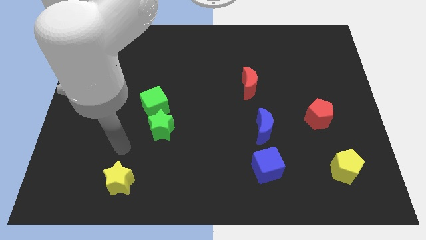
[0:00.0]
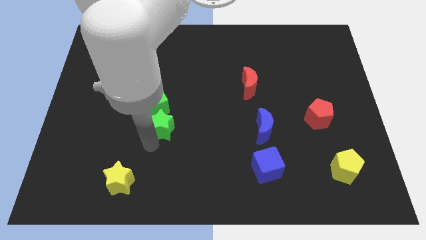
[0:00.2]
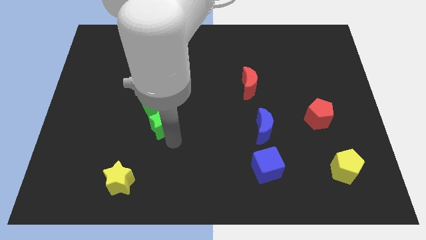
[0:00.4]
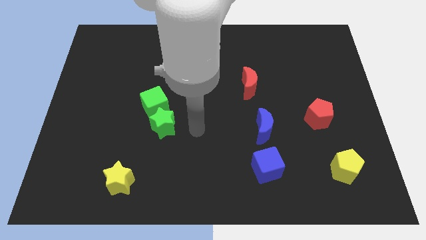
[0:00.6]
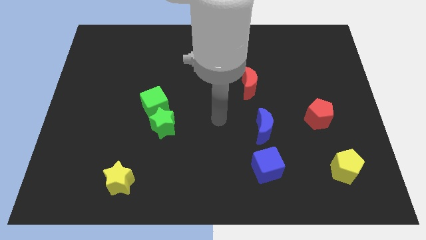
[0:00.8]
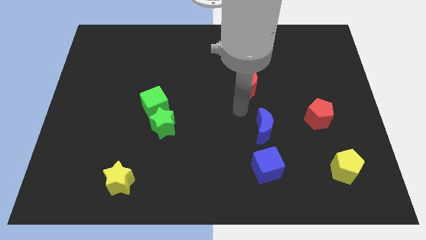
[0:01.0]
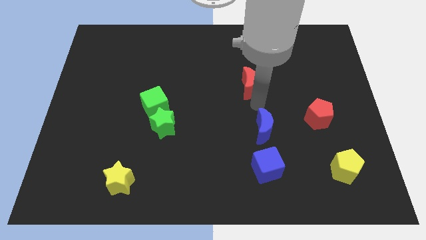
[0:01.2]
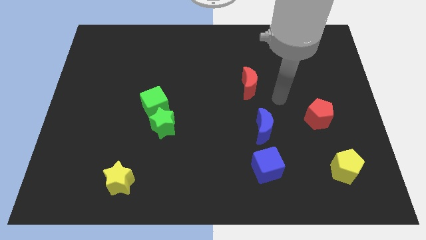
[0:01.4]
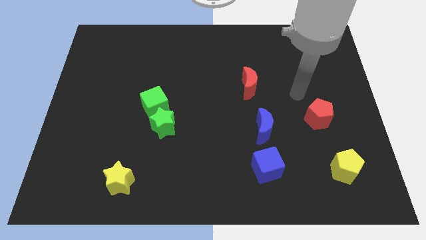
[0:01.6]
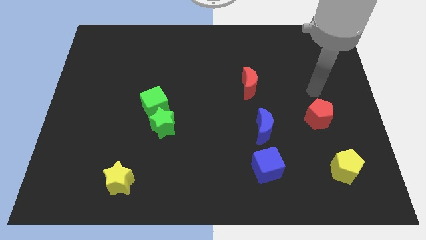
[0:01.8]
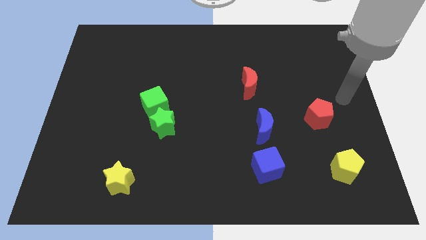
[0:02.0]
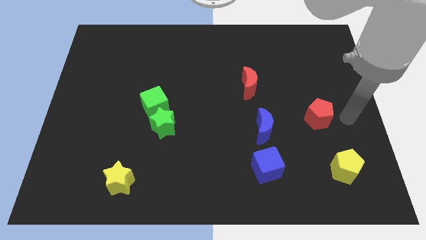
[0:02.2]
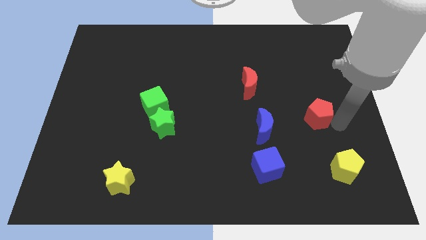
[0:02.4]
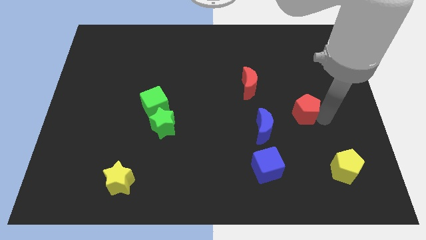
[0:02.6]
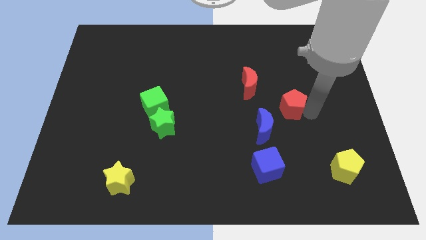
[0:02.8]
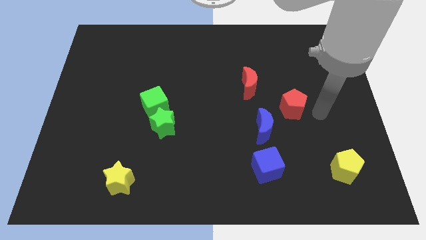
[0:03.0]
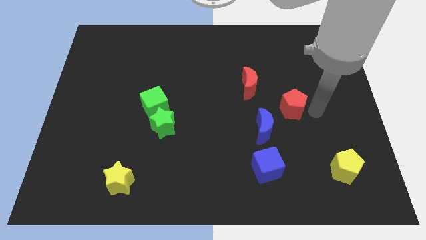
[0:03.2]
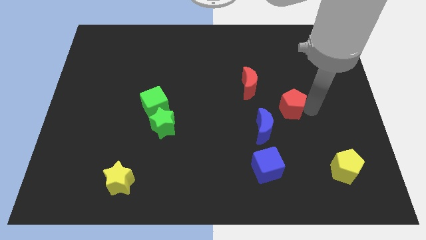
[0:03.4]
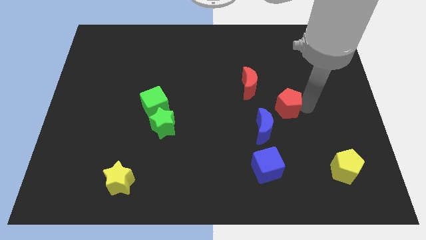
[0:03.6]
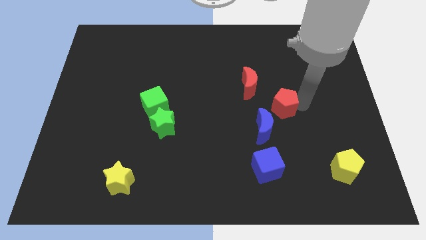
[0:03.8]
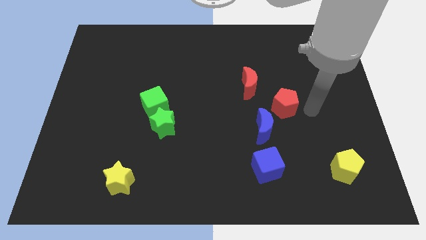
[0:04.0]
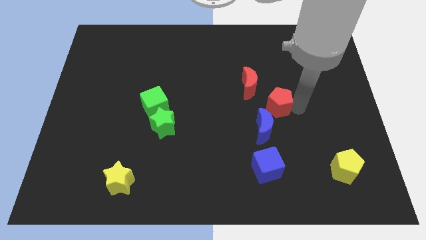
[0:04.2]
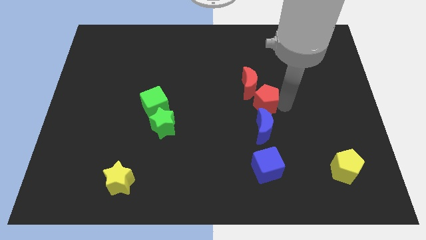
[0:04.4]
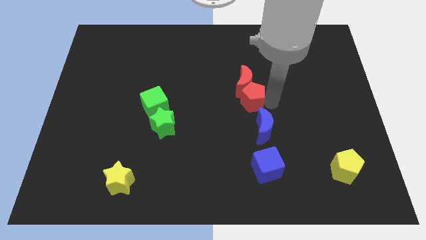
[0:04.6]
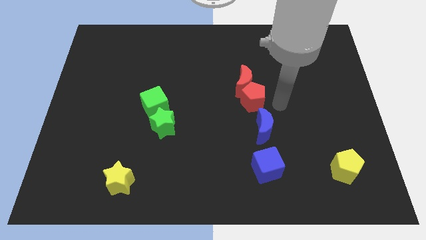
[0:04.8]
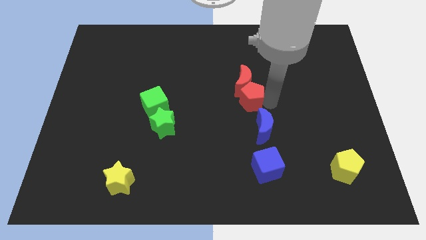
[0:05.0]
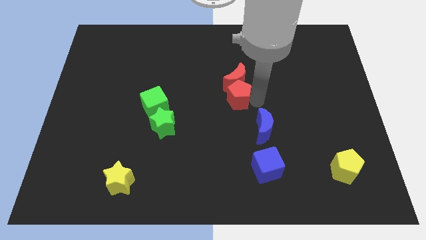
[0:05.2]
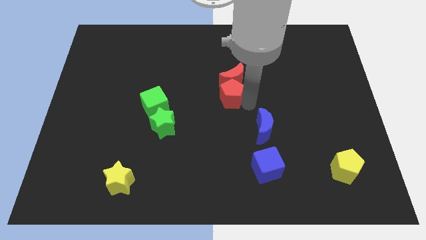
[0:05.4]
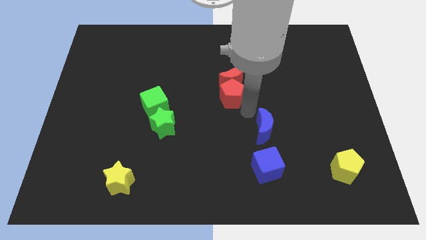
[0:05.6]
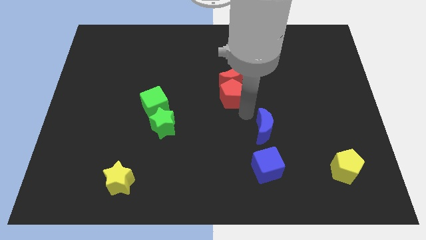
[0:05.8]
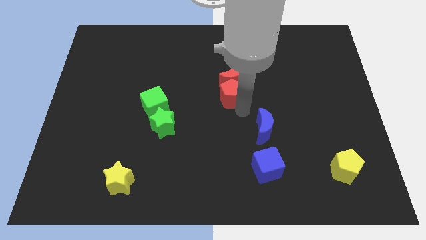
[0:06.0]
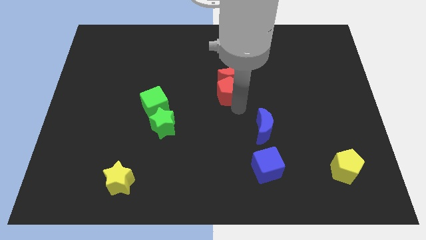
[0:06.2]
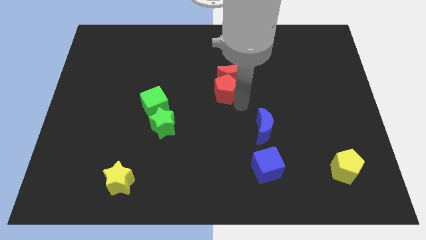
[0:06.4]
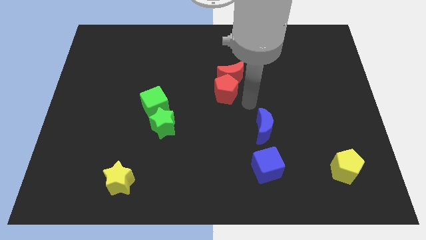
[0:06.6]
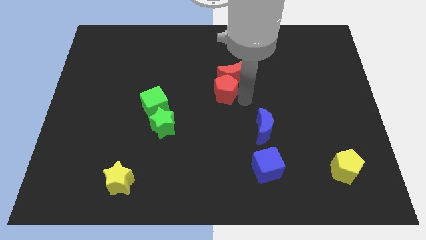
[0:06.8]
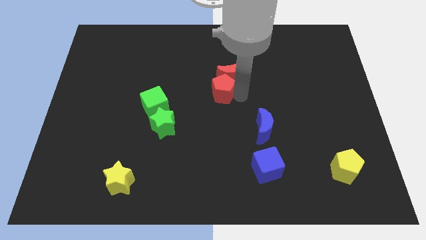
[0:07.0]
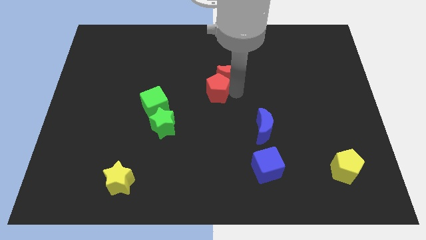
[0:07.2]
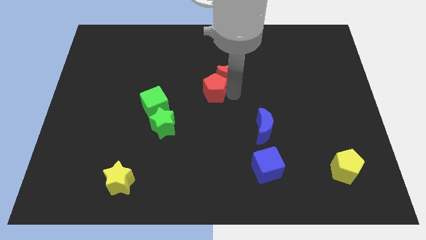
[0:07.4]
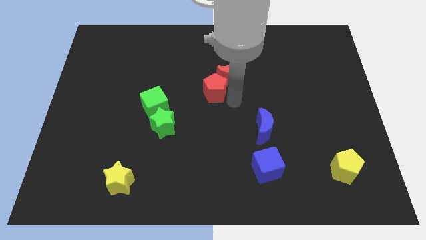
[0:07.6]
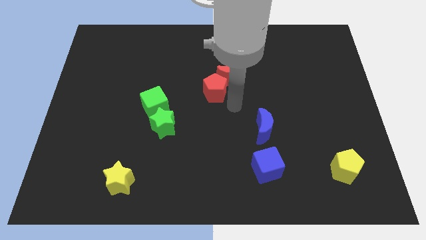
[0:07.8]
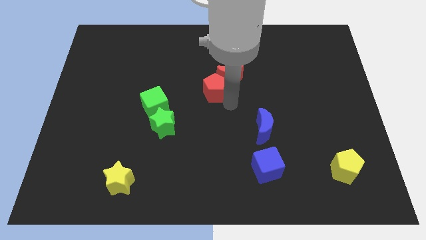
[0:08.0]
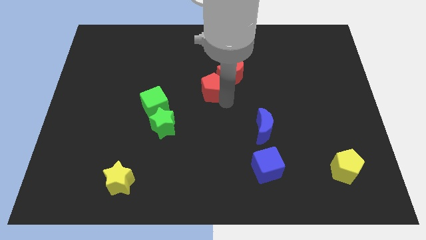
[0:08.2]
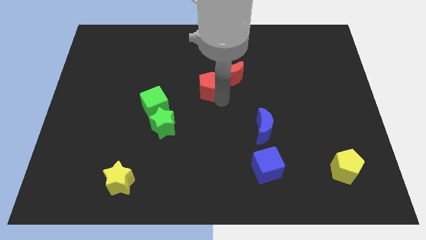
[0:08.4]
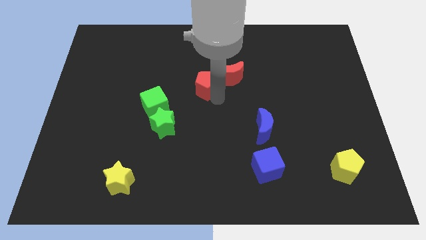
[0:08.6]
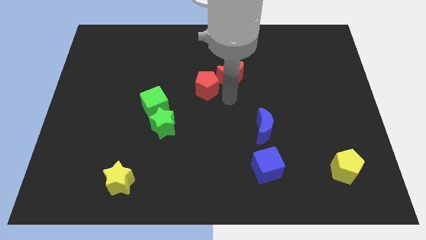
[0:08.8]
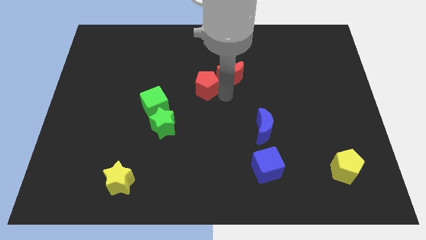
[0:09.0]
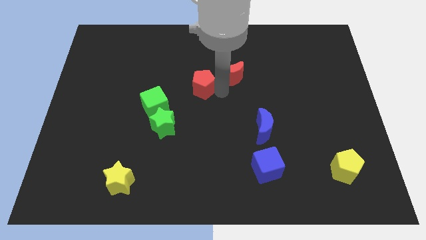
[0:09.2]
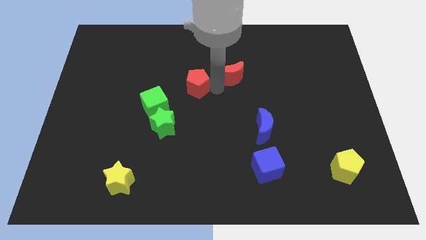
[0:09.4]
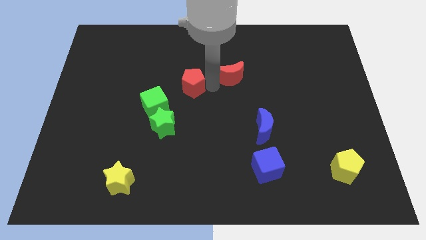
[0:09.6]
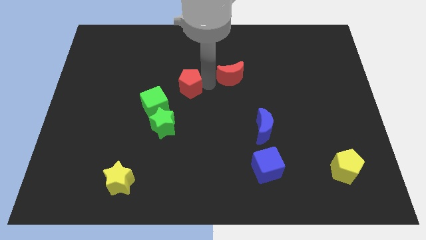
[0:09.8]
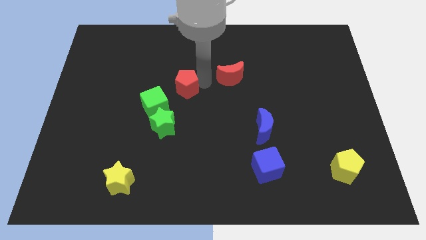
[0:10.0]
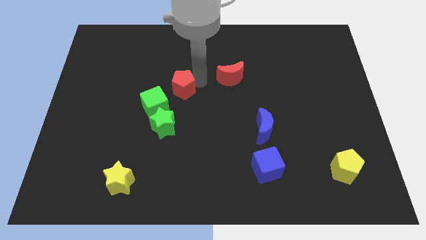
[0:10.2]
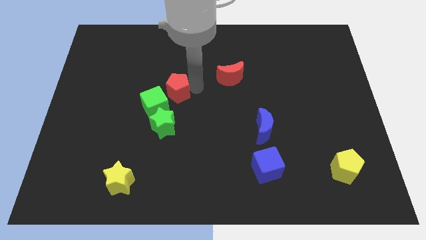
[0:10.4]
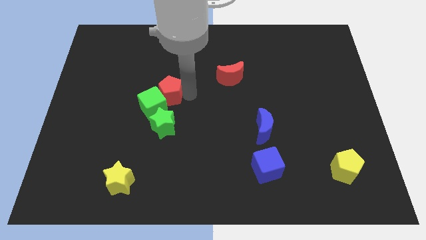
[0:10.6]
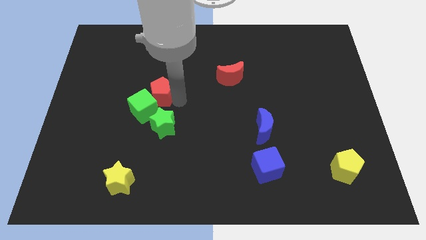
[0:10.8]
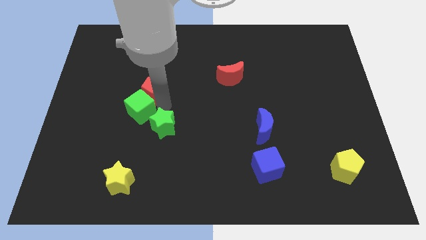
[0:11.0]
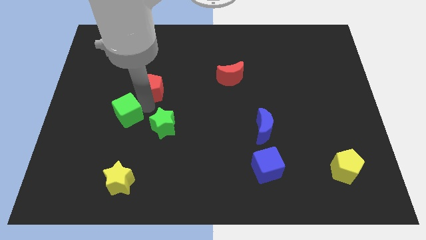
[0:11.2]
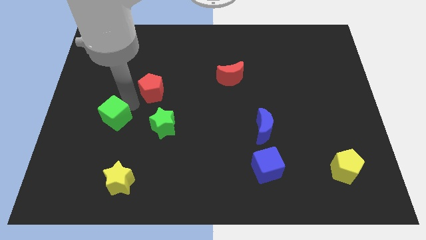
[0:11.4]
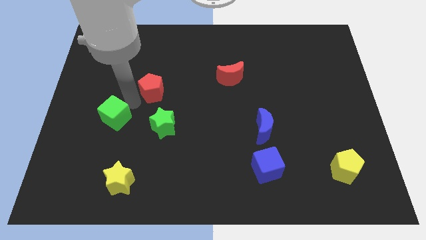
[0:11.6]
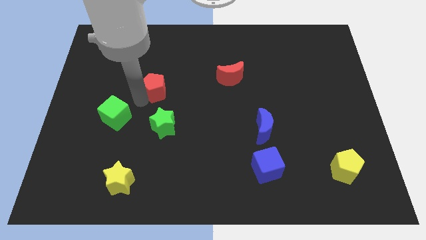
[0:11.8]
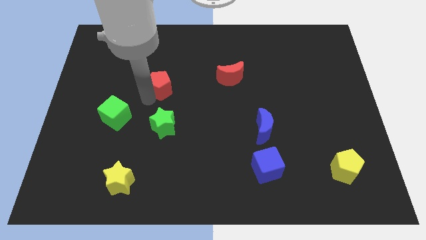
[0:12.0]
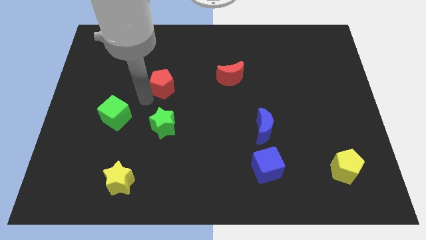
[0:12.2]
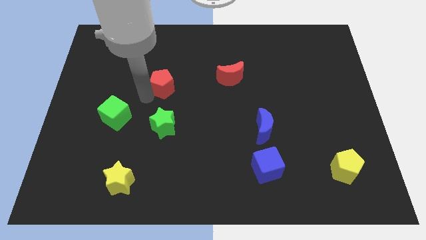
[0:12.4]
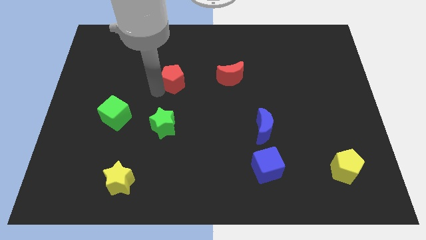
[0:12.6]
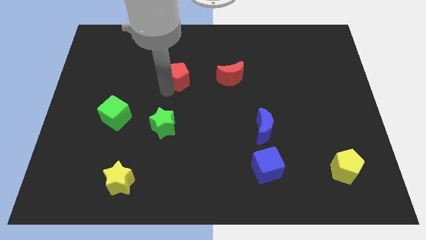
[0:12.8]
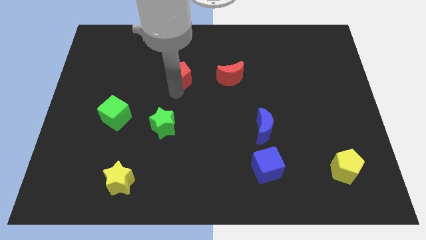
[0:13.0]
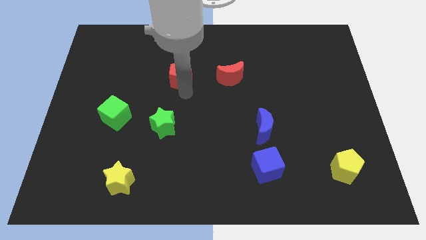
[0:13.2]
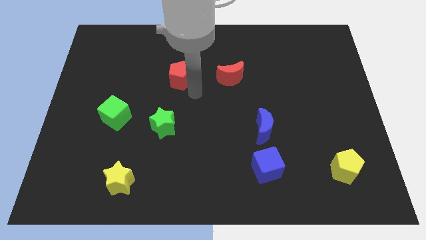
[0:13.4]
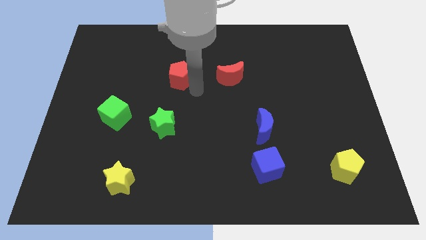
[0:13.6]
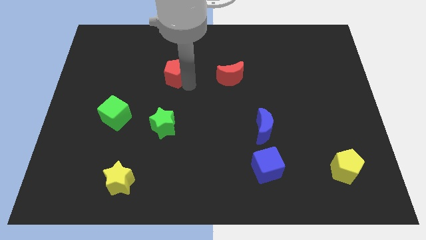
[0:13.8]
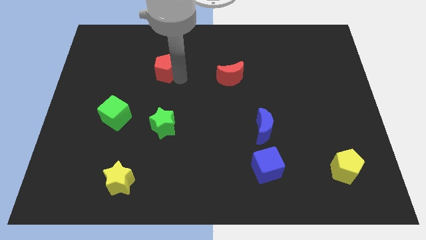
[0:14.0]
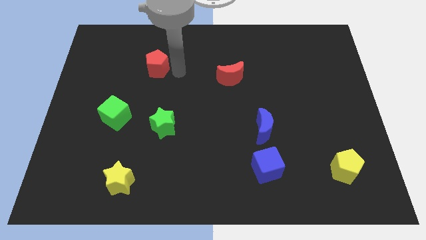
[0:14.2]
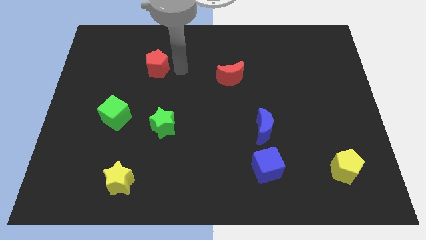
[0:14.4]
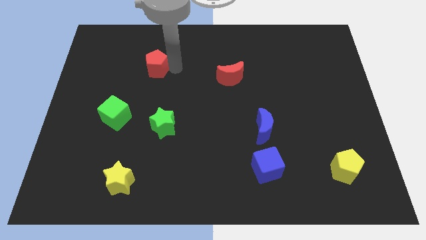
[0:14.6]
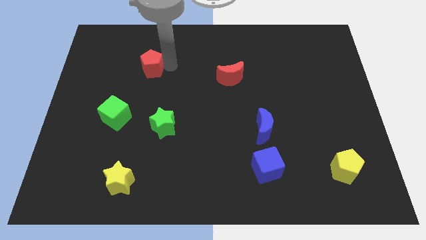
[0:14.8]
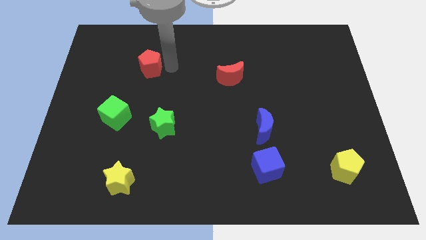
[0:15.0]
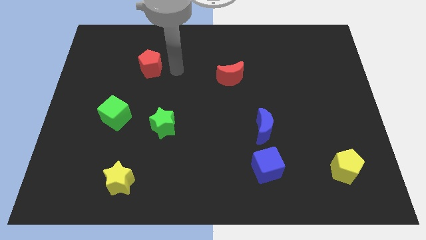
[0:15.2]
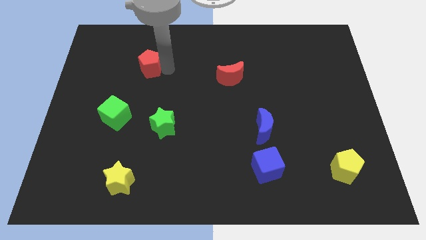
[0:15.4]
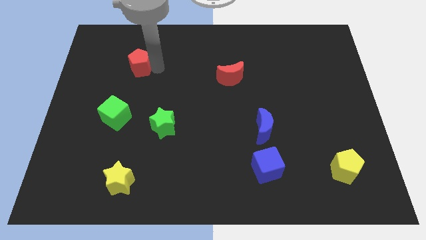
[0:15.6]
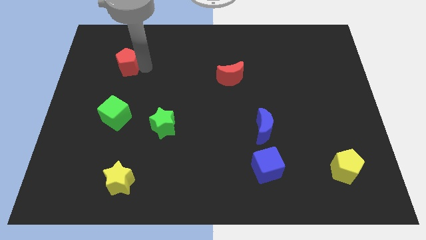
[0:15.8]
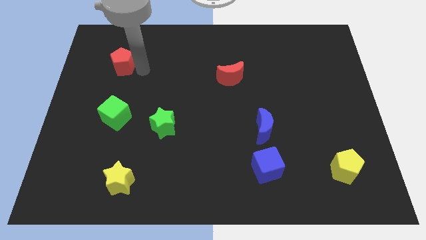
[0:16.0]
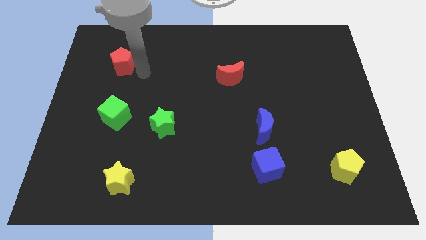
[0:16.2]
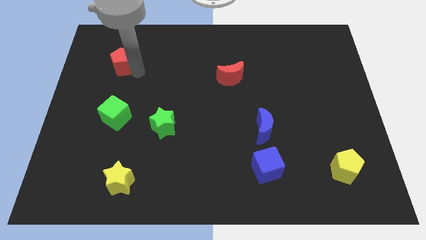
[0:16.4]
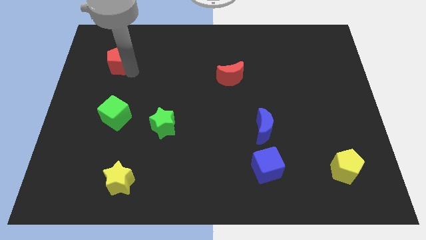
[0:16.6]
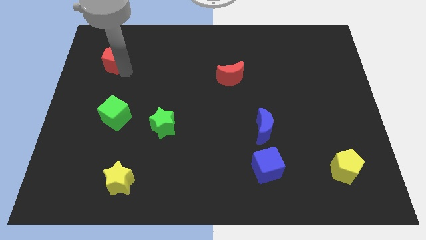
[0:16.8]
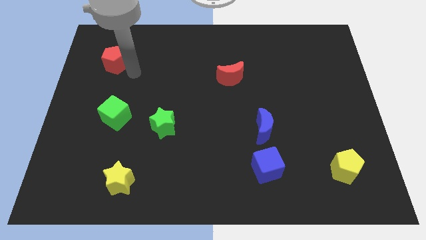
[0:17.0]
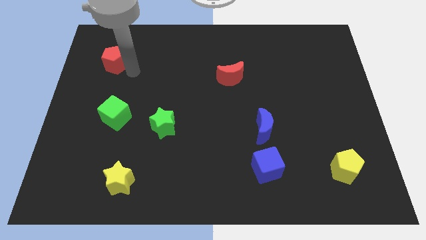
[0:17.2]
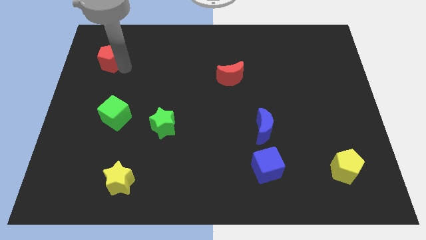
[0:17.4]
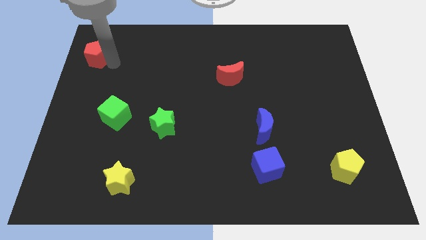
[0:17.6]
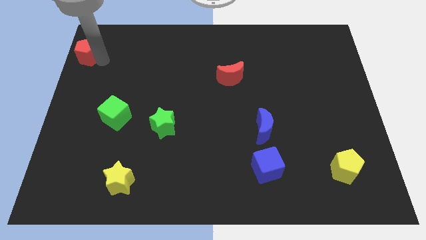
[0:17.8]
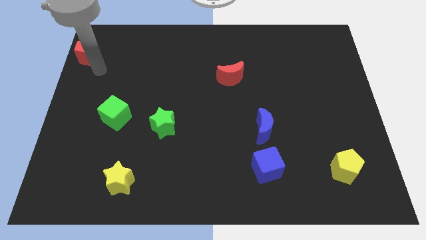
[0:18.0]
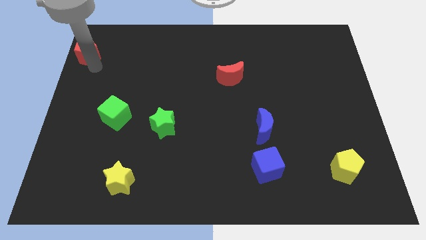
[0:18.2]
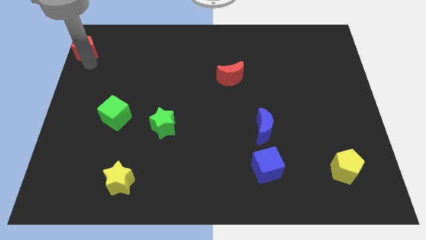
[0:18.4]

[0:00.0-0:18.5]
push the red pentagon to the top left
